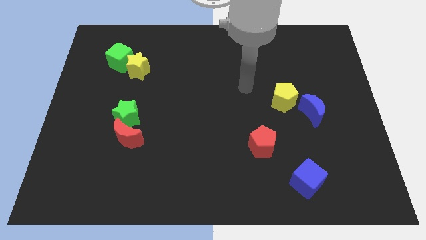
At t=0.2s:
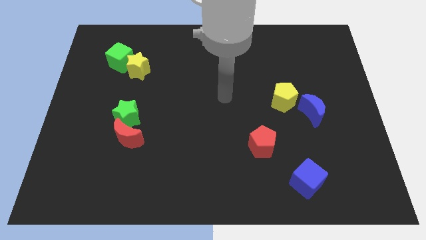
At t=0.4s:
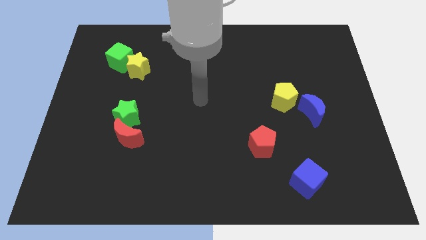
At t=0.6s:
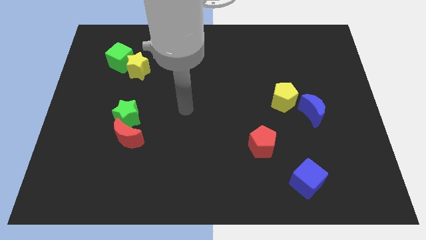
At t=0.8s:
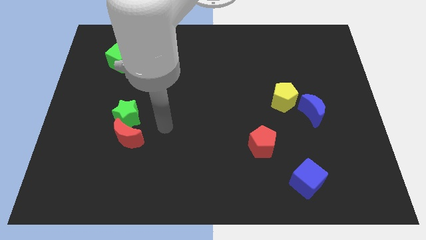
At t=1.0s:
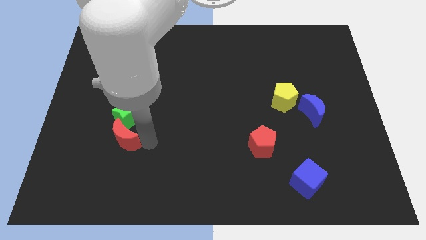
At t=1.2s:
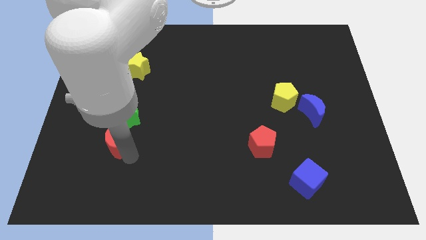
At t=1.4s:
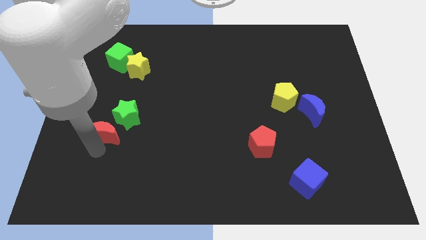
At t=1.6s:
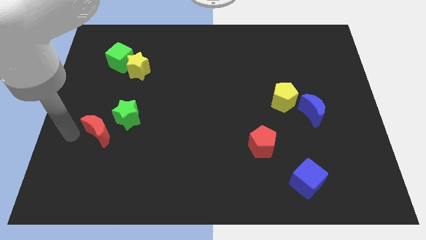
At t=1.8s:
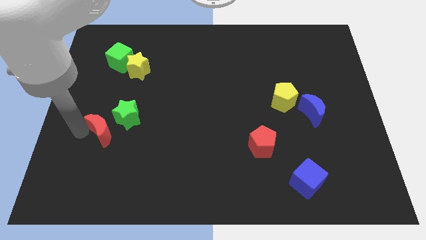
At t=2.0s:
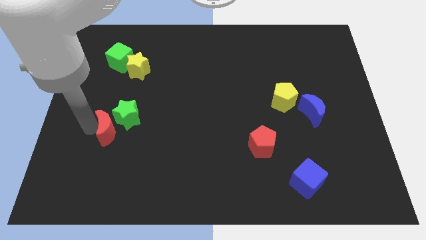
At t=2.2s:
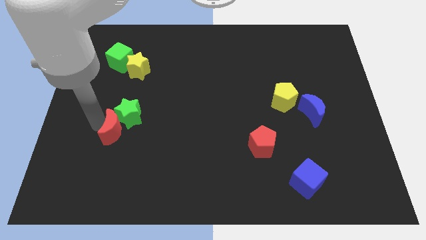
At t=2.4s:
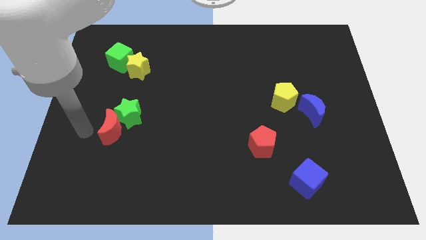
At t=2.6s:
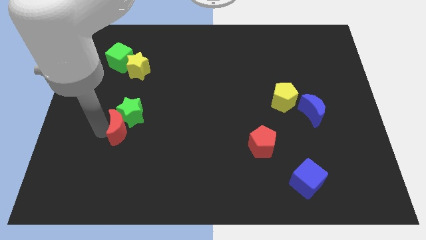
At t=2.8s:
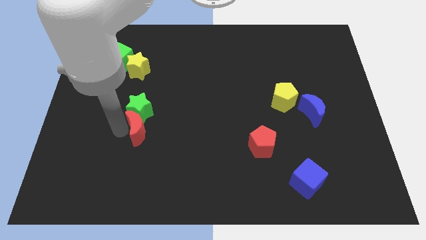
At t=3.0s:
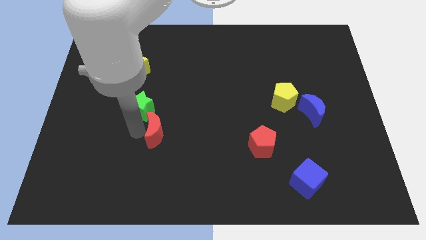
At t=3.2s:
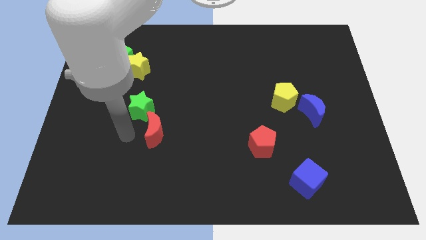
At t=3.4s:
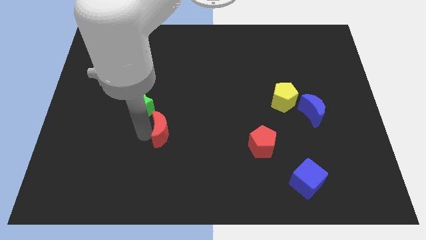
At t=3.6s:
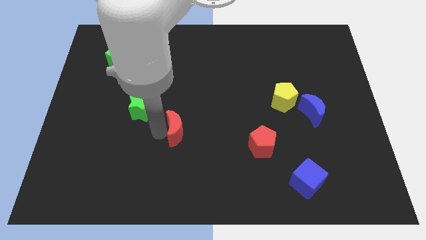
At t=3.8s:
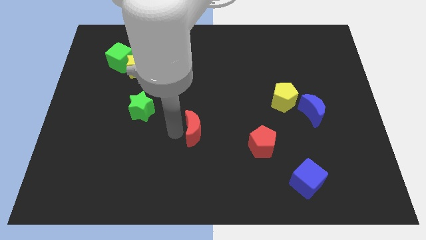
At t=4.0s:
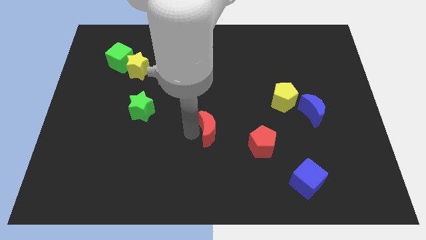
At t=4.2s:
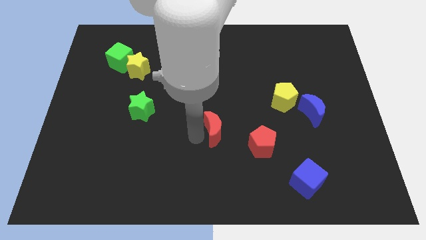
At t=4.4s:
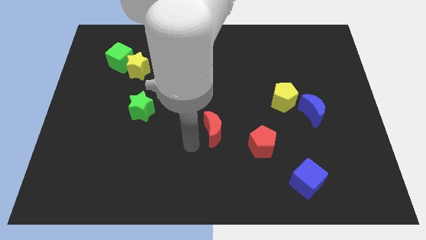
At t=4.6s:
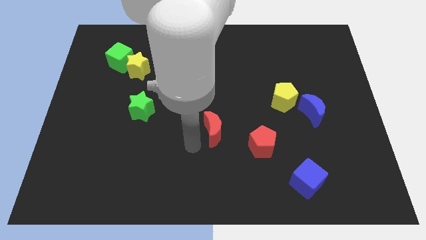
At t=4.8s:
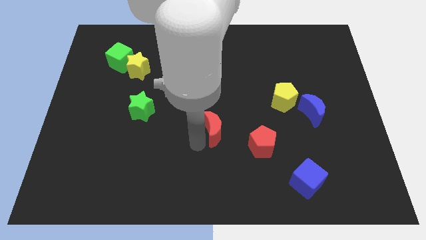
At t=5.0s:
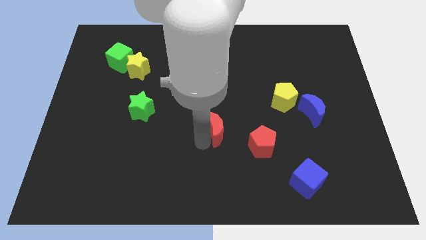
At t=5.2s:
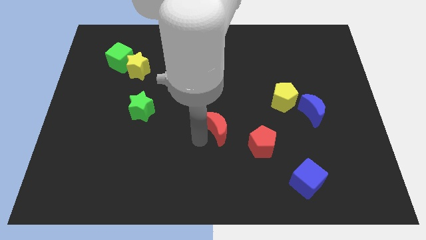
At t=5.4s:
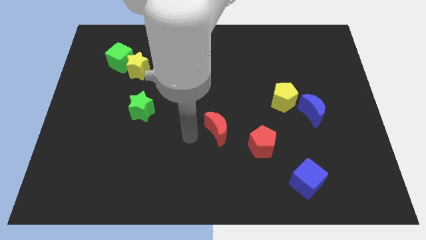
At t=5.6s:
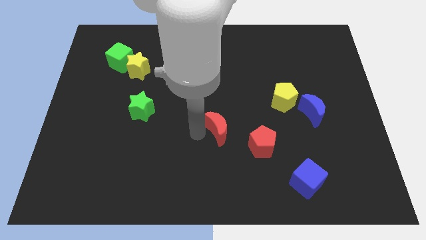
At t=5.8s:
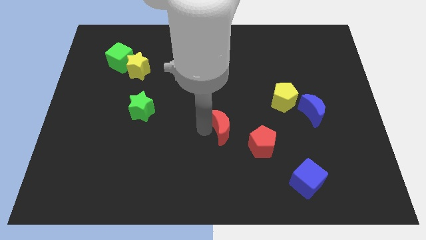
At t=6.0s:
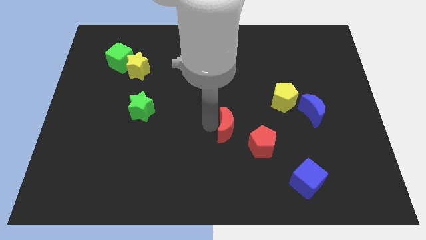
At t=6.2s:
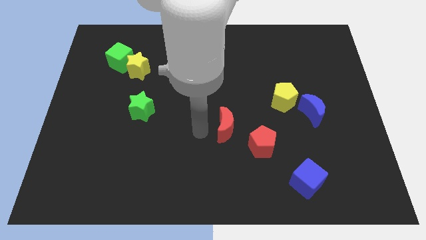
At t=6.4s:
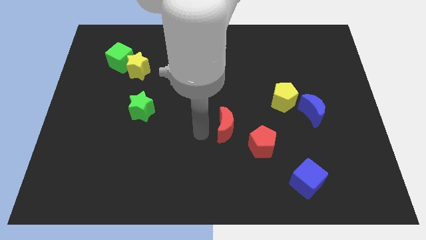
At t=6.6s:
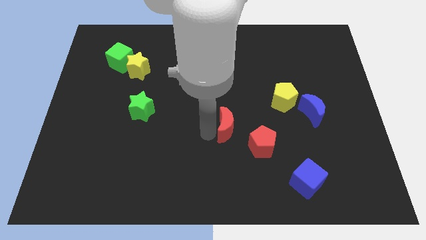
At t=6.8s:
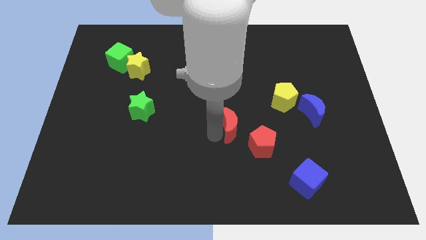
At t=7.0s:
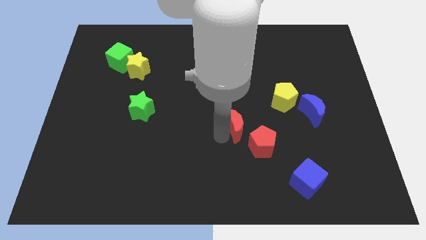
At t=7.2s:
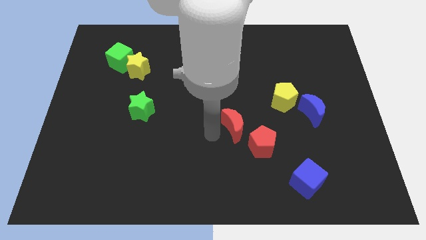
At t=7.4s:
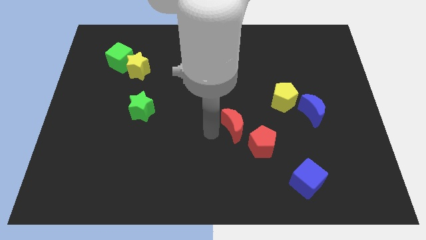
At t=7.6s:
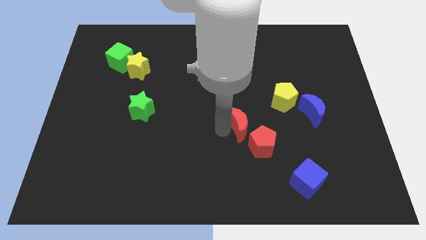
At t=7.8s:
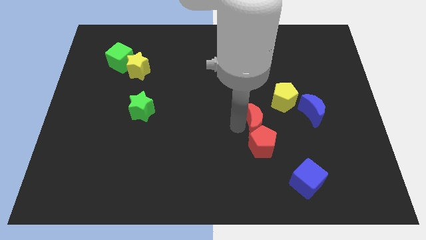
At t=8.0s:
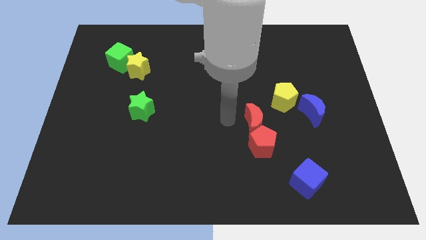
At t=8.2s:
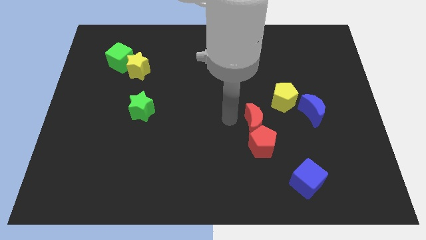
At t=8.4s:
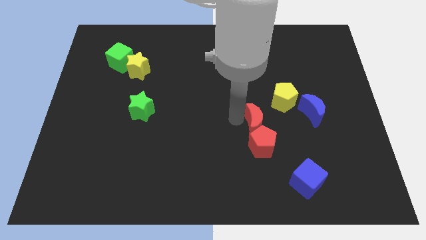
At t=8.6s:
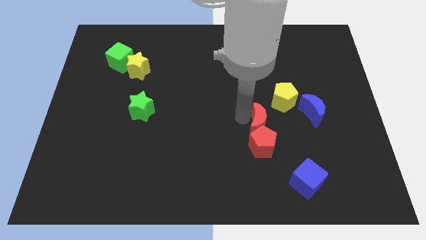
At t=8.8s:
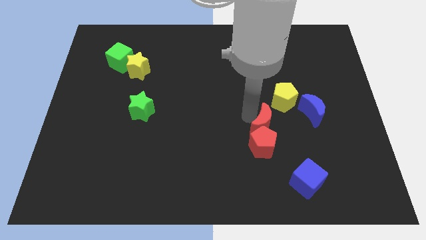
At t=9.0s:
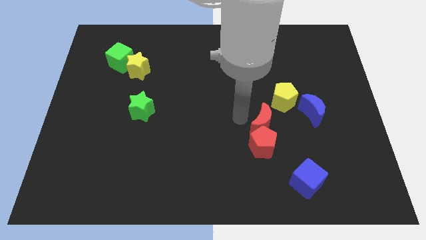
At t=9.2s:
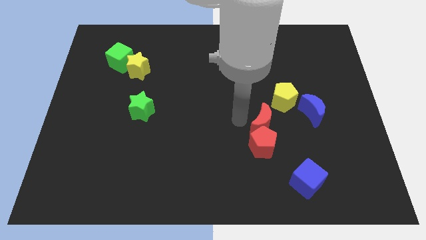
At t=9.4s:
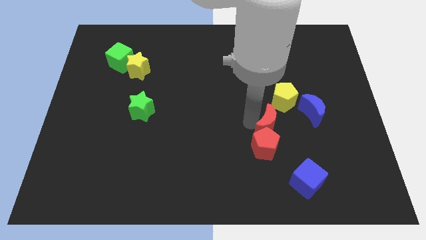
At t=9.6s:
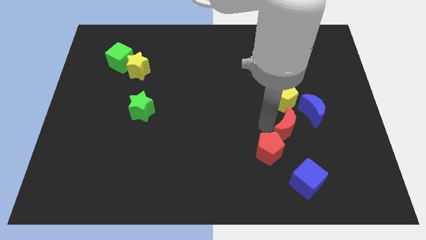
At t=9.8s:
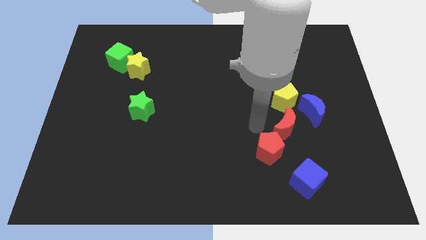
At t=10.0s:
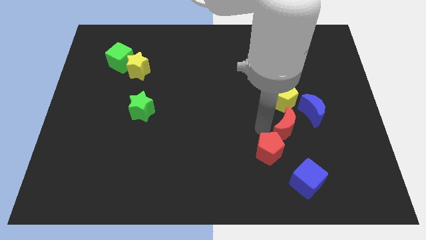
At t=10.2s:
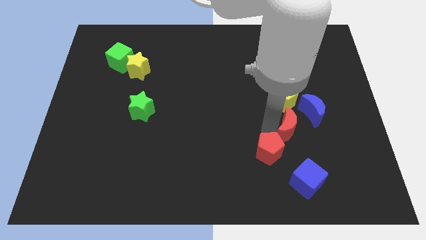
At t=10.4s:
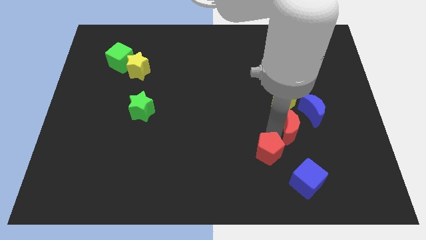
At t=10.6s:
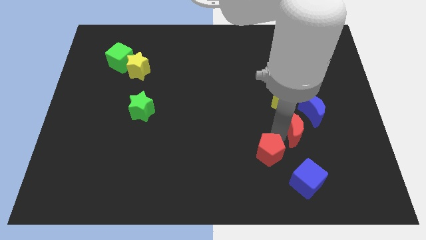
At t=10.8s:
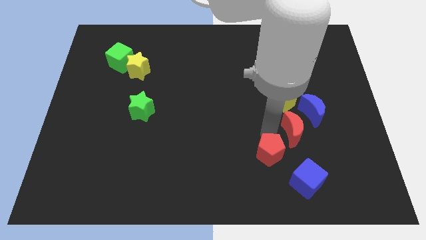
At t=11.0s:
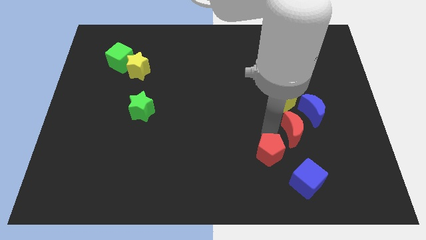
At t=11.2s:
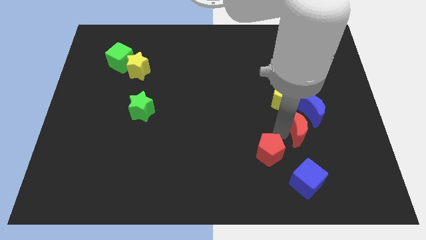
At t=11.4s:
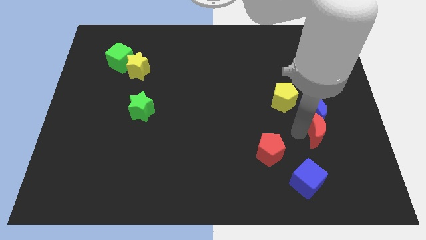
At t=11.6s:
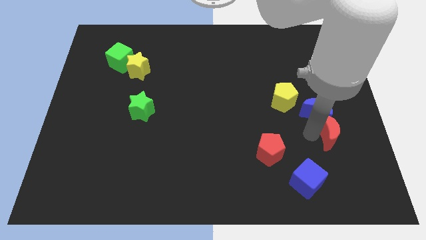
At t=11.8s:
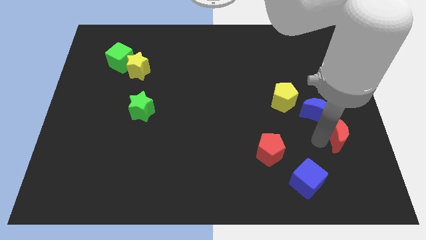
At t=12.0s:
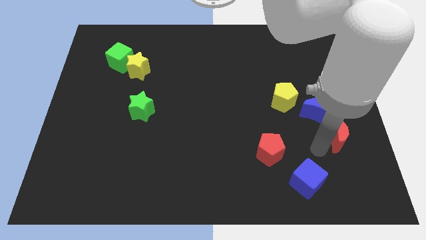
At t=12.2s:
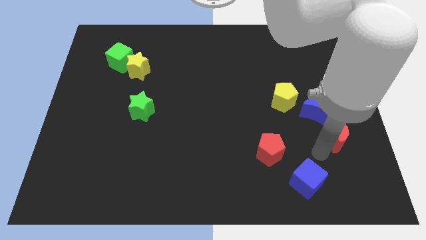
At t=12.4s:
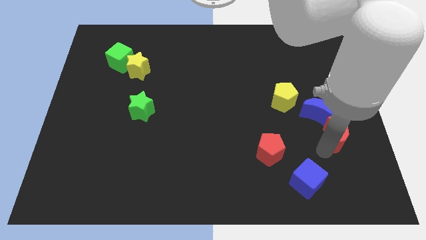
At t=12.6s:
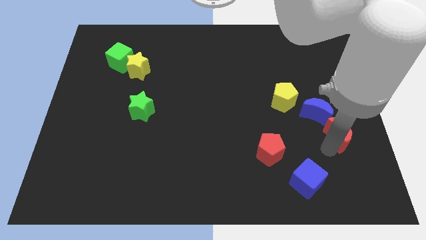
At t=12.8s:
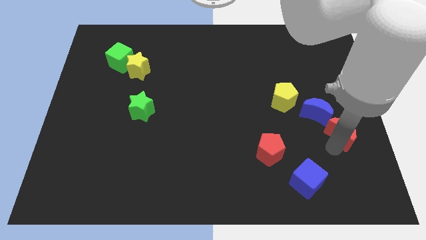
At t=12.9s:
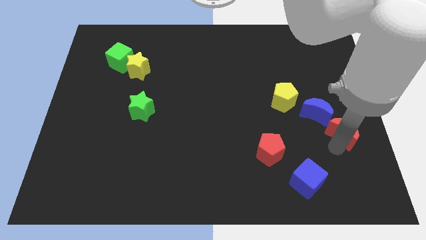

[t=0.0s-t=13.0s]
push the red moon to the right side of the board
